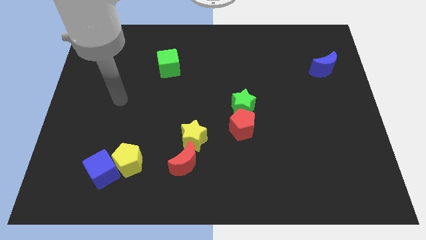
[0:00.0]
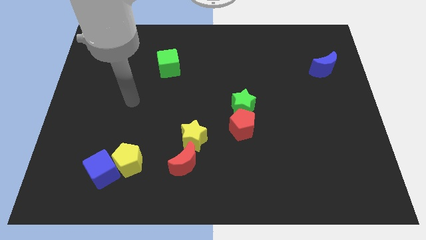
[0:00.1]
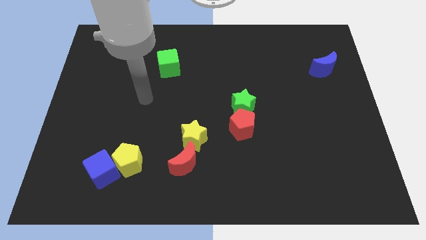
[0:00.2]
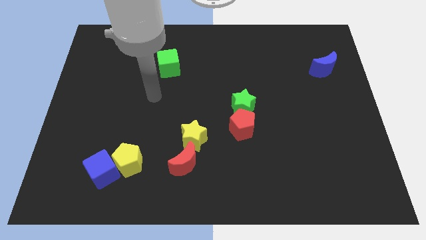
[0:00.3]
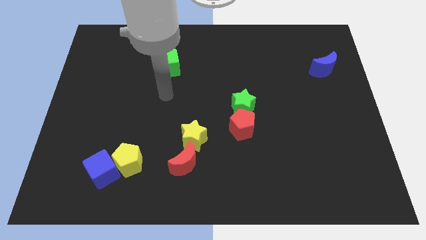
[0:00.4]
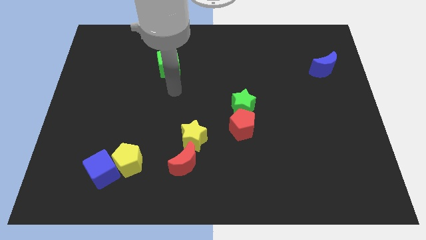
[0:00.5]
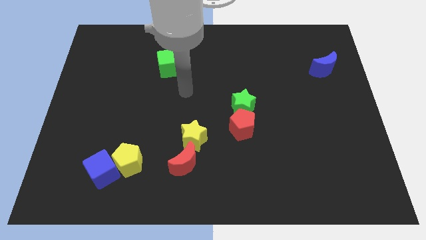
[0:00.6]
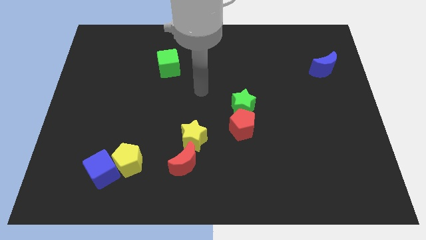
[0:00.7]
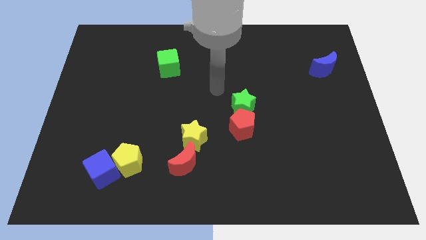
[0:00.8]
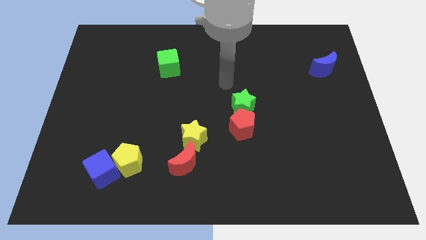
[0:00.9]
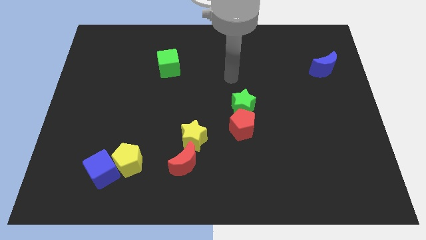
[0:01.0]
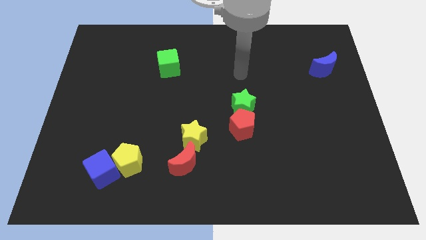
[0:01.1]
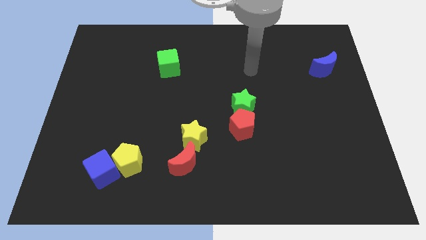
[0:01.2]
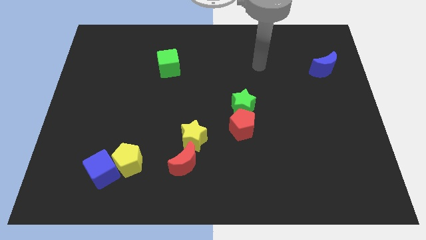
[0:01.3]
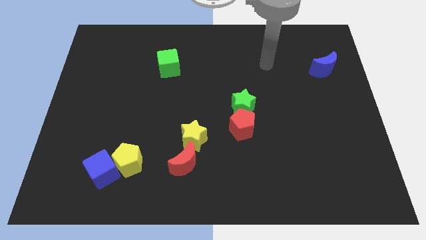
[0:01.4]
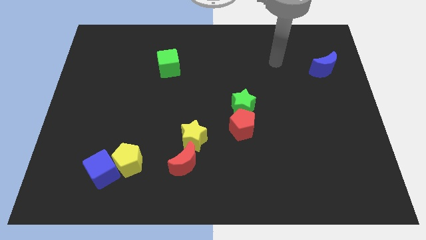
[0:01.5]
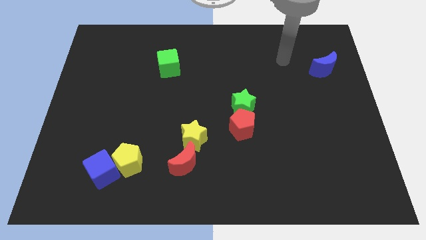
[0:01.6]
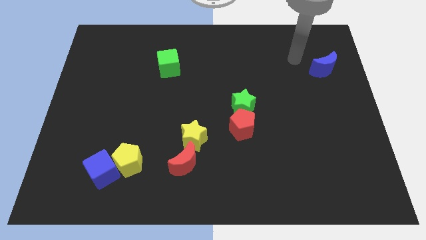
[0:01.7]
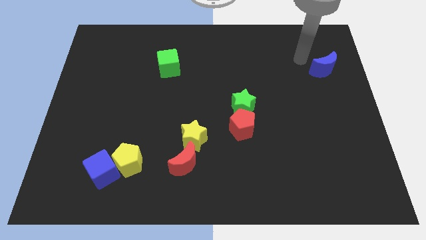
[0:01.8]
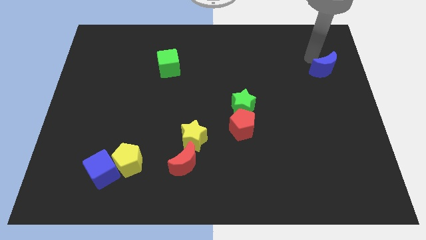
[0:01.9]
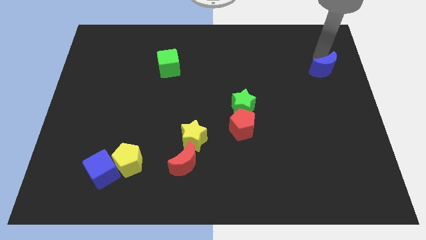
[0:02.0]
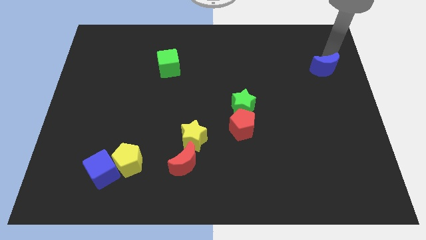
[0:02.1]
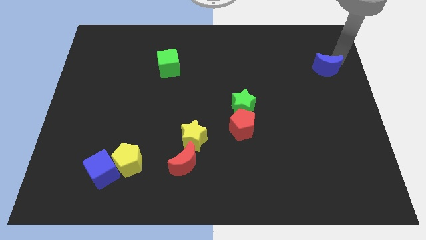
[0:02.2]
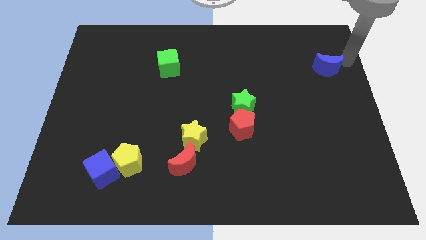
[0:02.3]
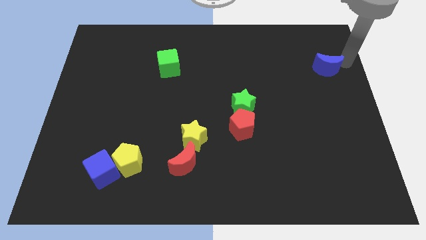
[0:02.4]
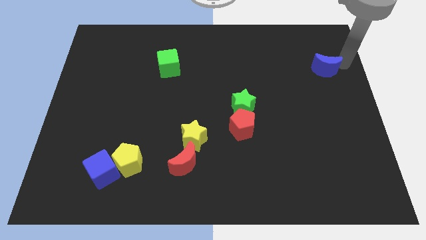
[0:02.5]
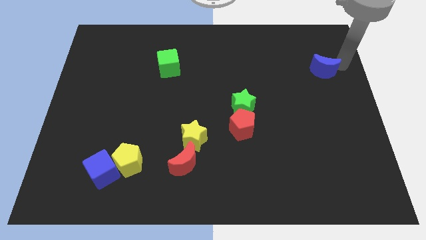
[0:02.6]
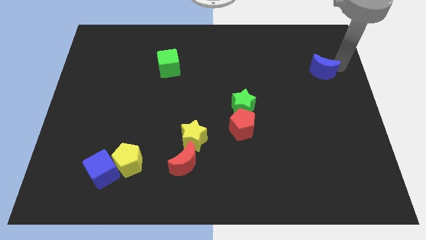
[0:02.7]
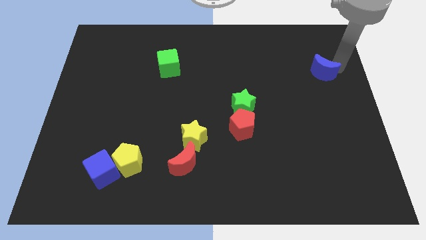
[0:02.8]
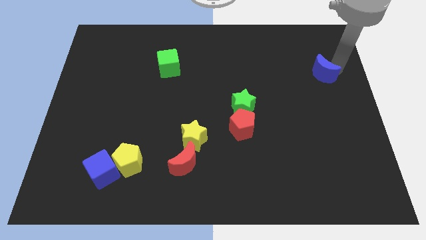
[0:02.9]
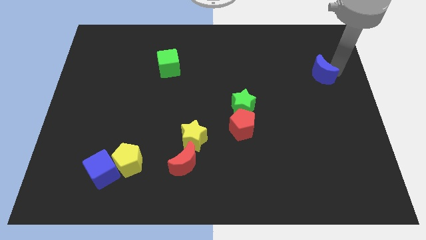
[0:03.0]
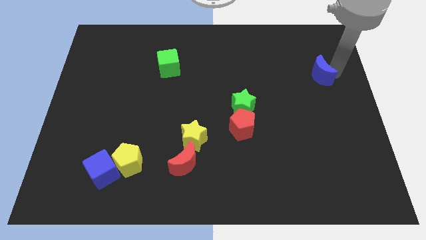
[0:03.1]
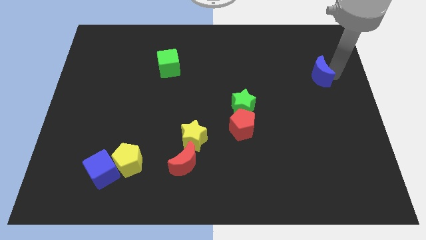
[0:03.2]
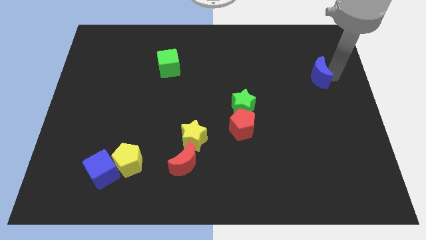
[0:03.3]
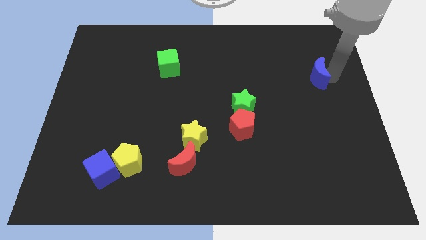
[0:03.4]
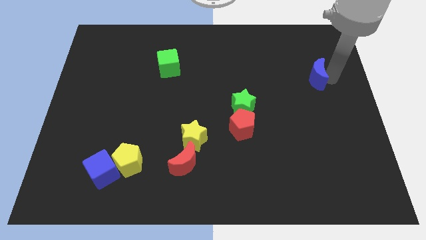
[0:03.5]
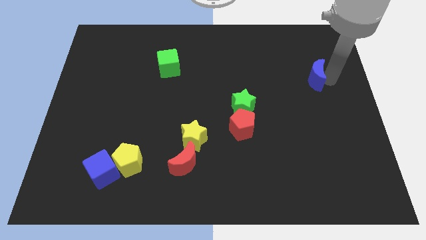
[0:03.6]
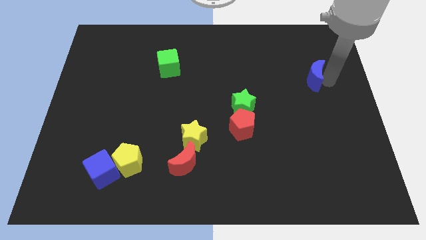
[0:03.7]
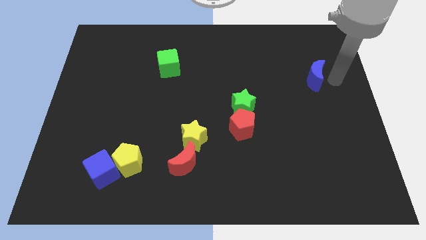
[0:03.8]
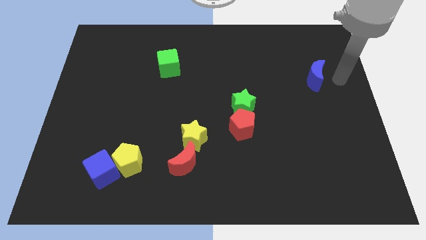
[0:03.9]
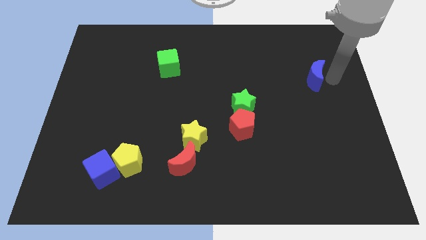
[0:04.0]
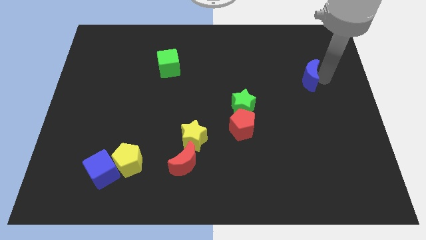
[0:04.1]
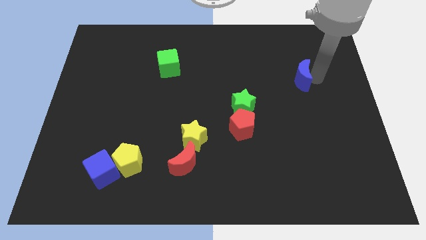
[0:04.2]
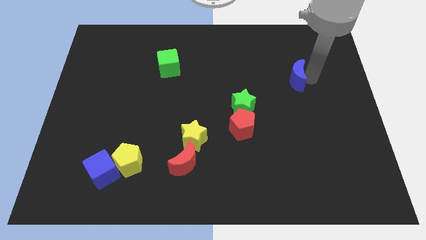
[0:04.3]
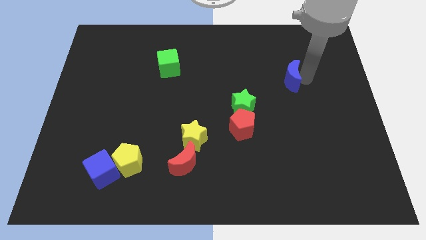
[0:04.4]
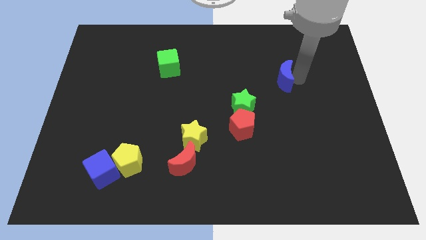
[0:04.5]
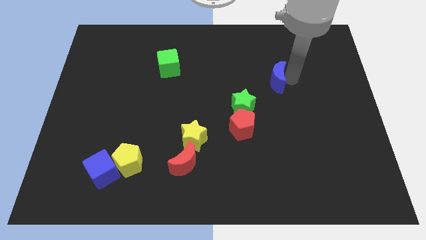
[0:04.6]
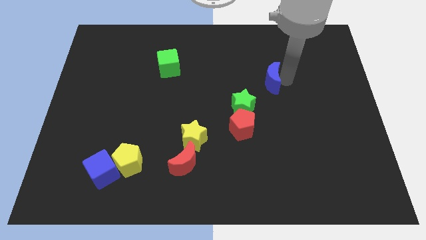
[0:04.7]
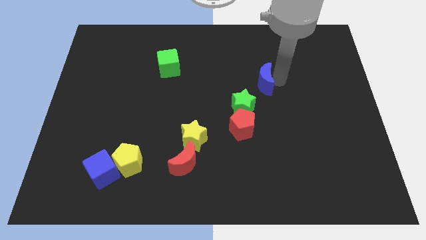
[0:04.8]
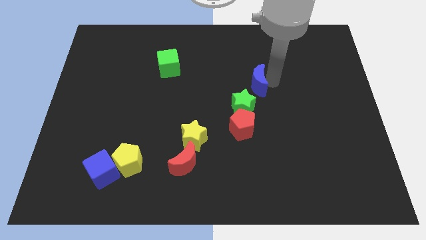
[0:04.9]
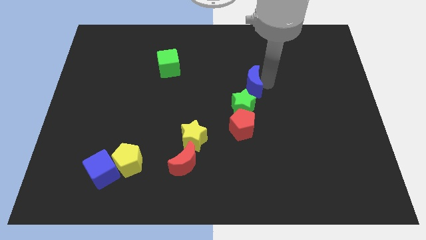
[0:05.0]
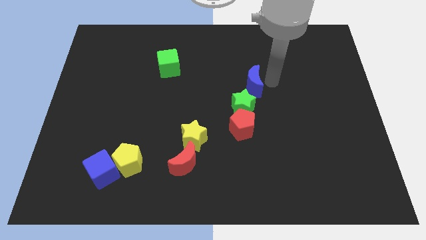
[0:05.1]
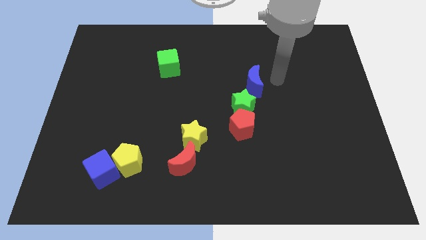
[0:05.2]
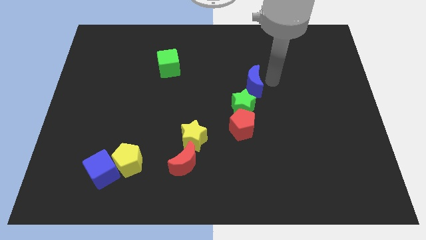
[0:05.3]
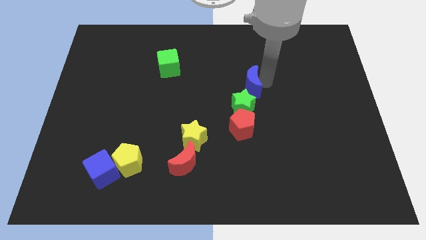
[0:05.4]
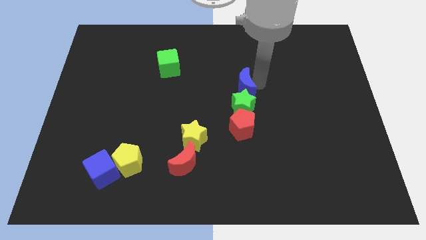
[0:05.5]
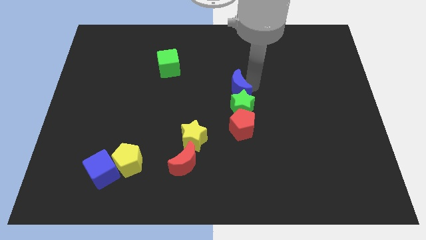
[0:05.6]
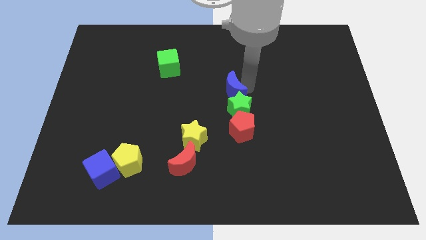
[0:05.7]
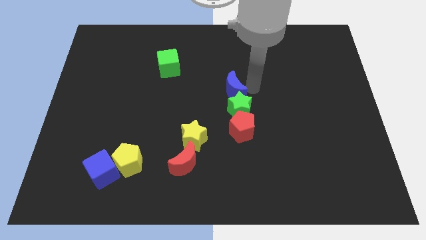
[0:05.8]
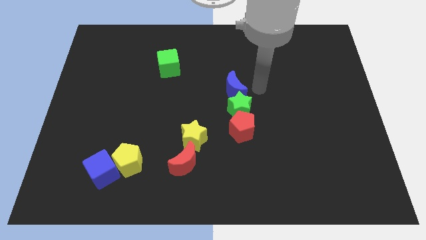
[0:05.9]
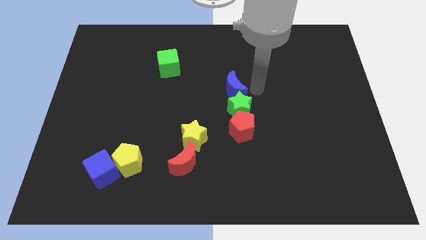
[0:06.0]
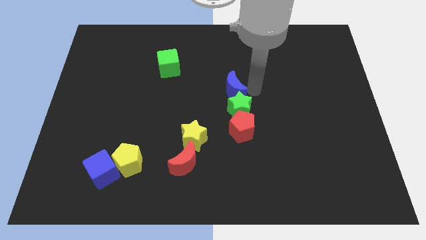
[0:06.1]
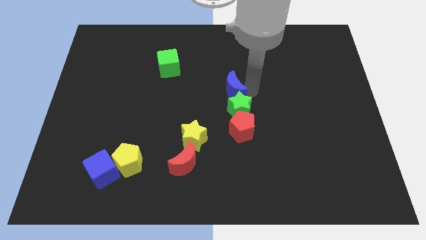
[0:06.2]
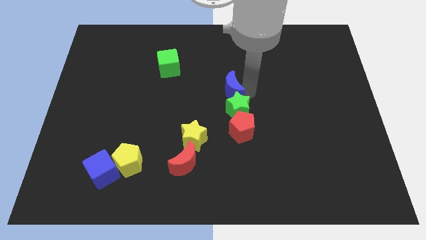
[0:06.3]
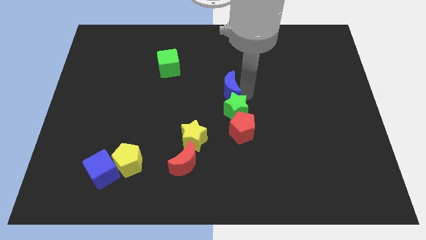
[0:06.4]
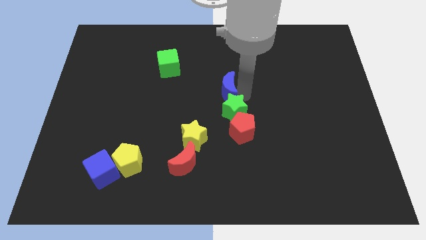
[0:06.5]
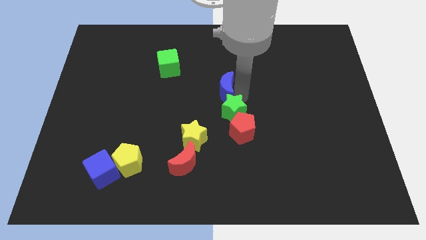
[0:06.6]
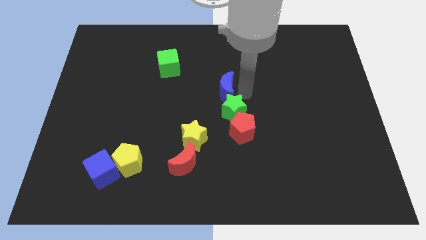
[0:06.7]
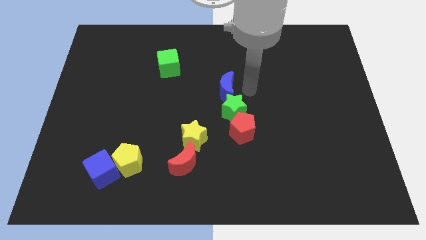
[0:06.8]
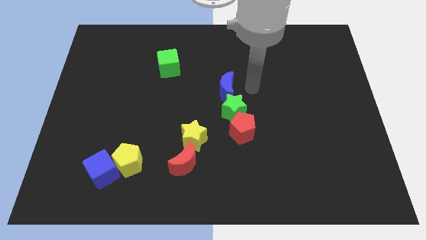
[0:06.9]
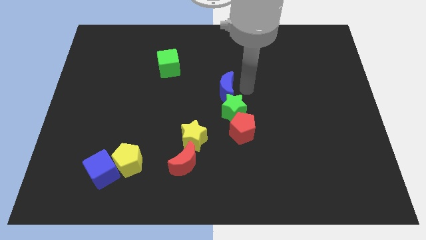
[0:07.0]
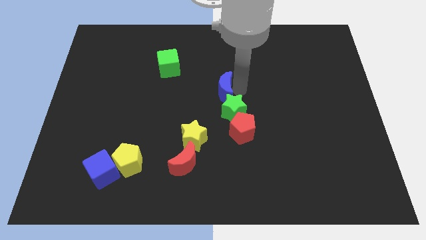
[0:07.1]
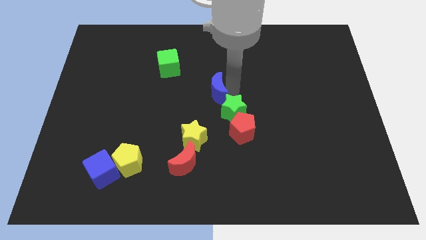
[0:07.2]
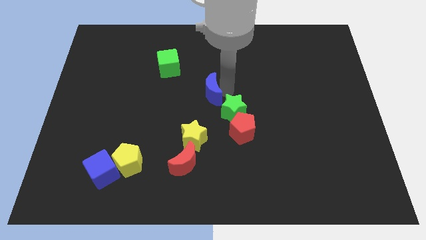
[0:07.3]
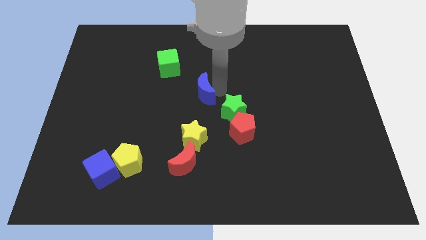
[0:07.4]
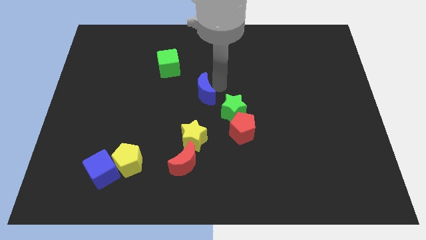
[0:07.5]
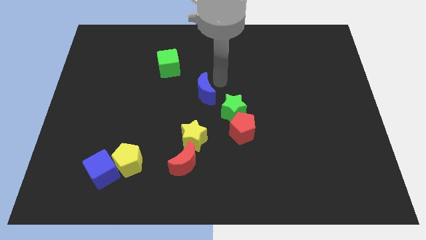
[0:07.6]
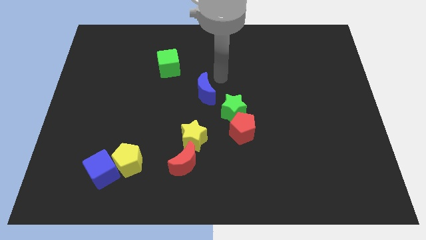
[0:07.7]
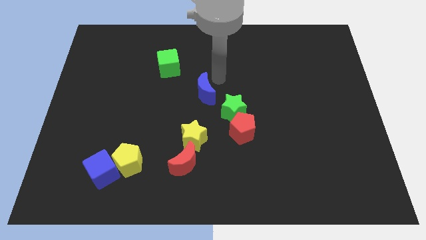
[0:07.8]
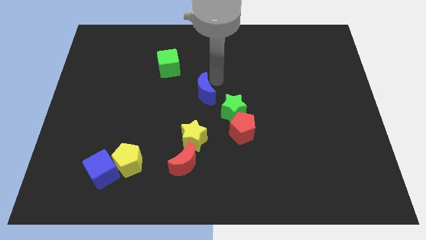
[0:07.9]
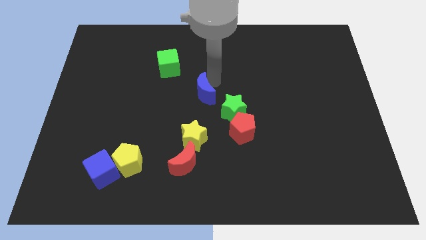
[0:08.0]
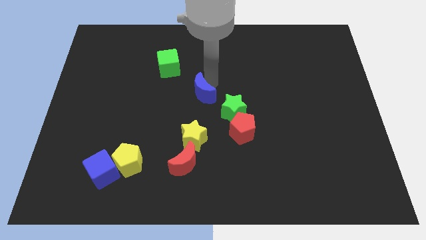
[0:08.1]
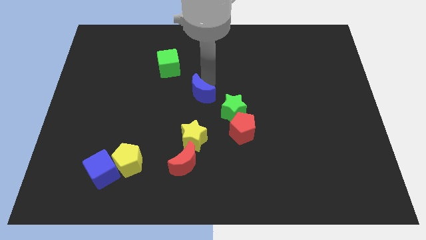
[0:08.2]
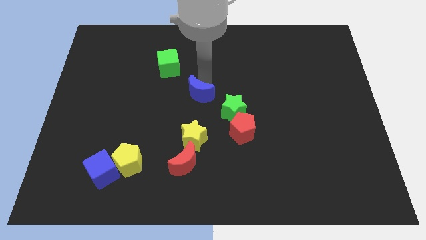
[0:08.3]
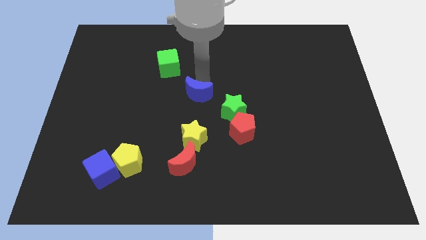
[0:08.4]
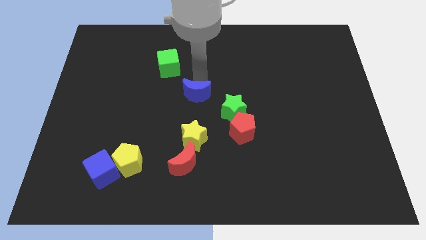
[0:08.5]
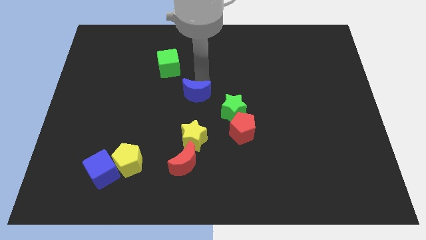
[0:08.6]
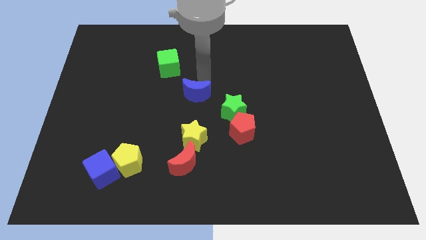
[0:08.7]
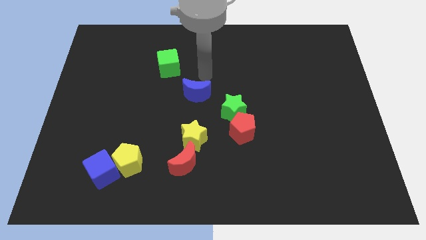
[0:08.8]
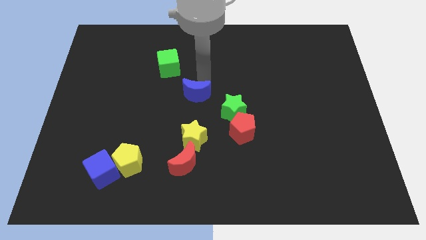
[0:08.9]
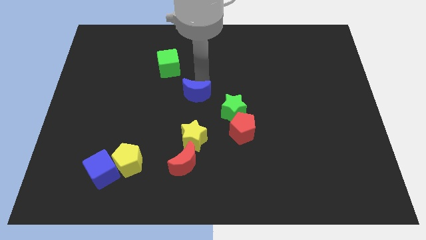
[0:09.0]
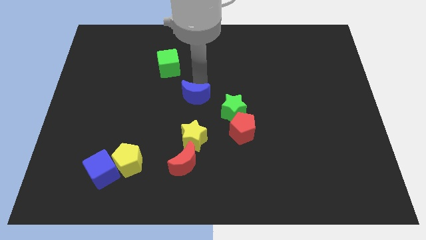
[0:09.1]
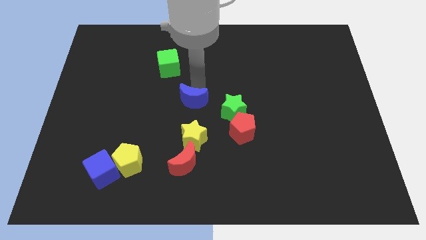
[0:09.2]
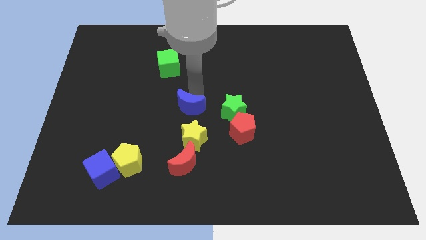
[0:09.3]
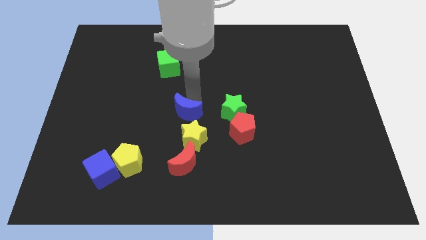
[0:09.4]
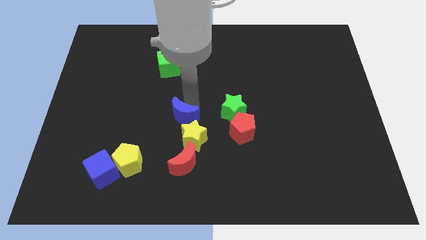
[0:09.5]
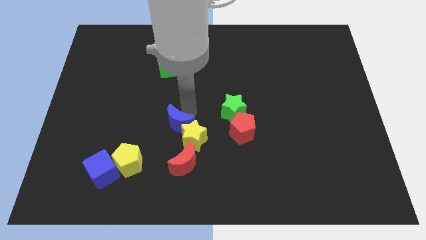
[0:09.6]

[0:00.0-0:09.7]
slide the blue moon just left of the yellow star
